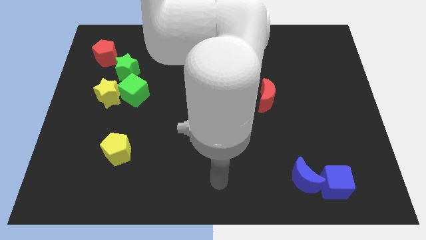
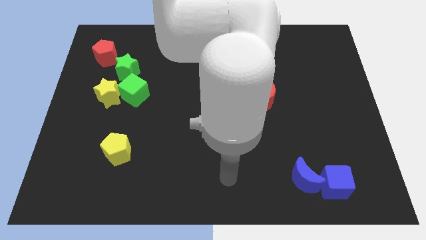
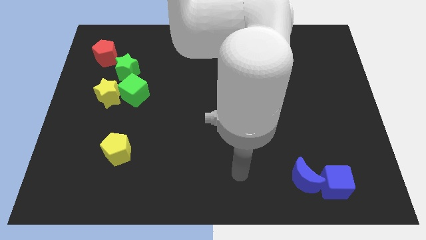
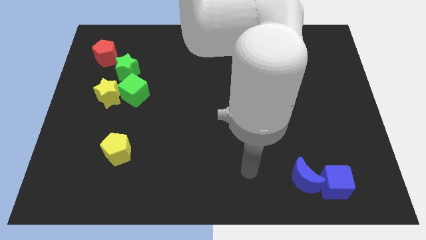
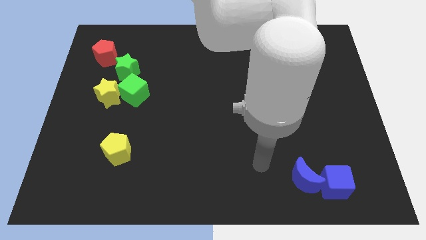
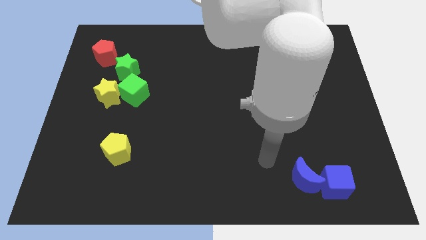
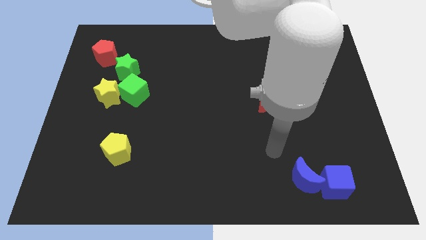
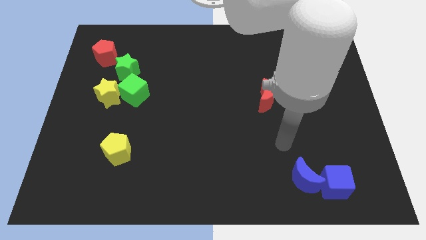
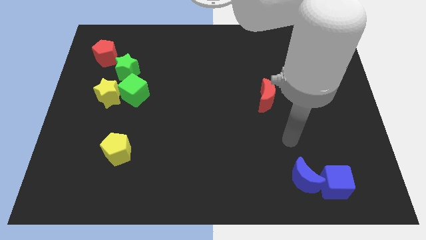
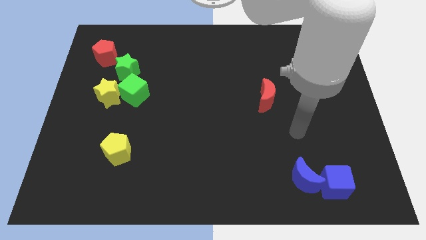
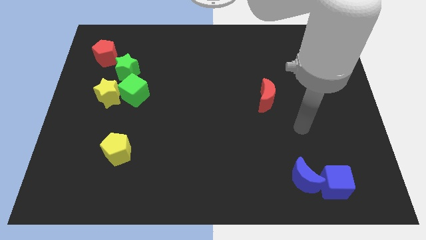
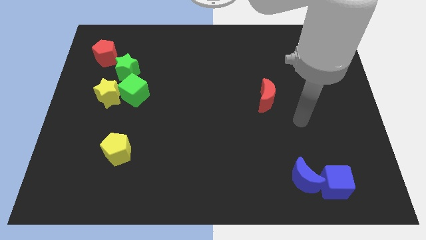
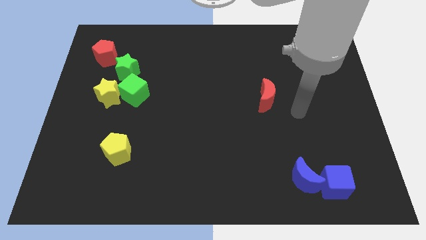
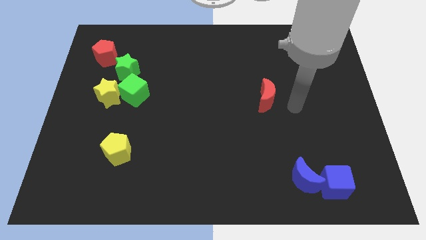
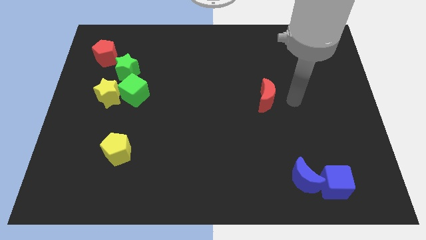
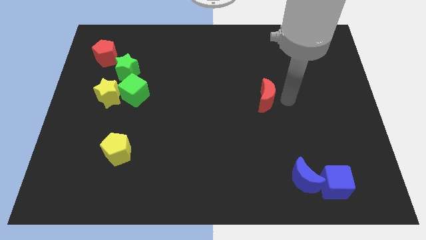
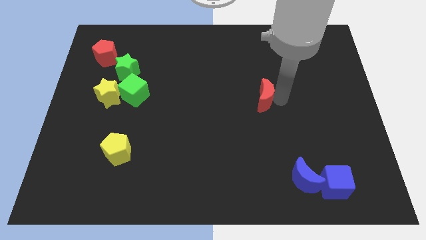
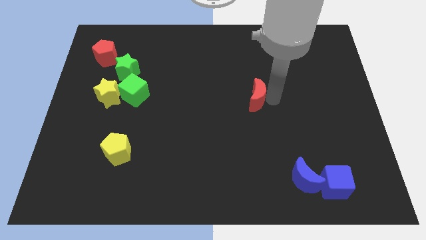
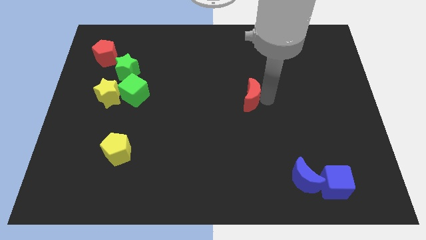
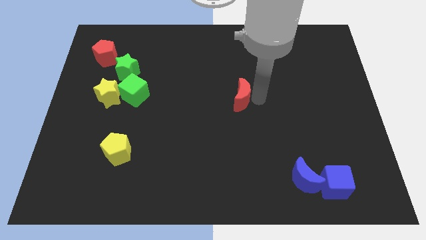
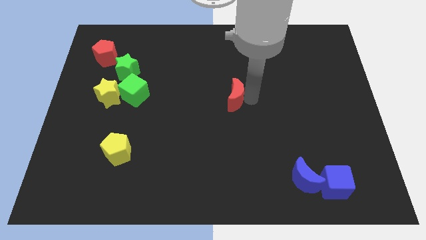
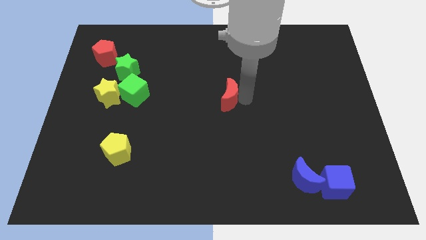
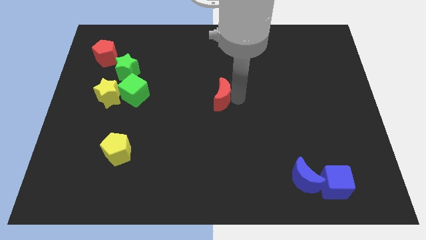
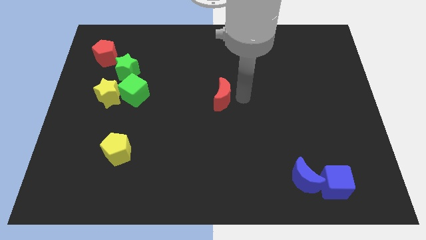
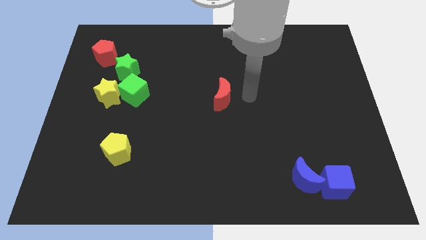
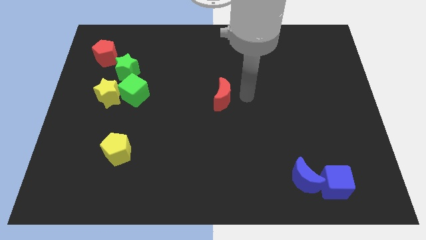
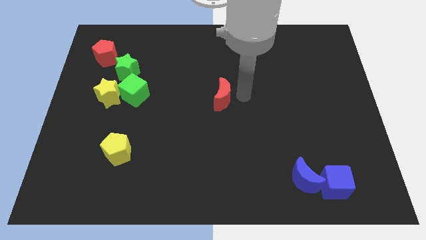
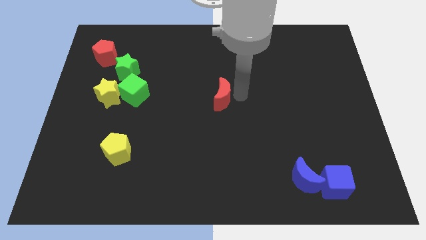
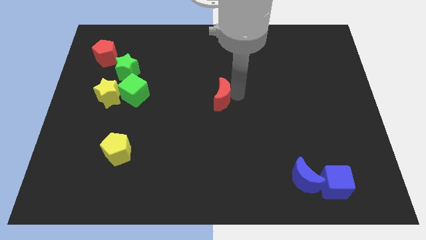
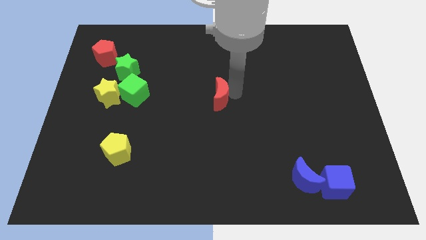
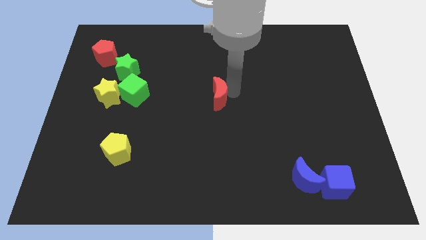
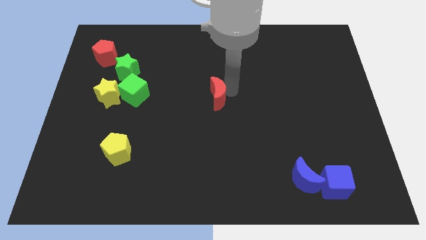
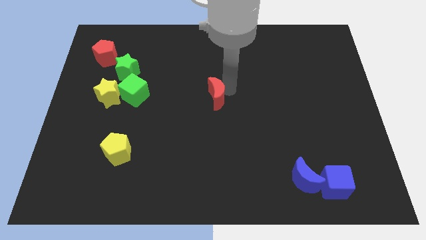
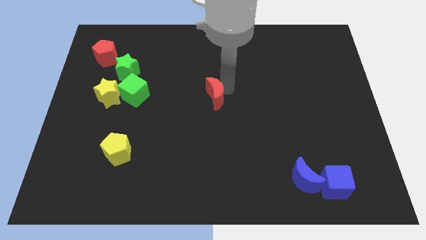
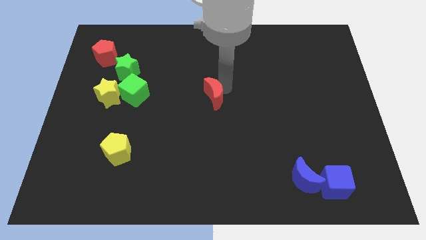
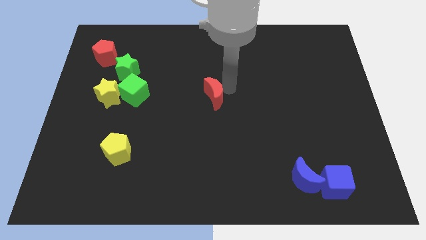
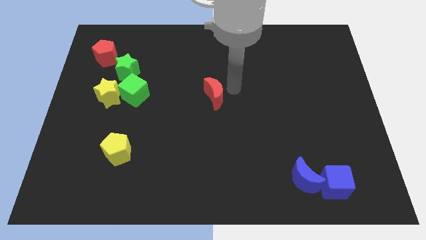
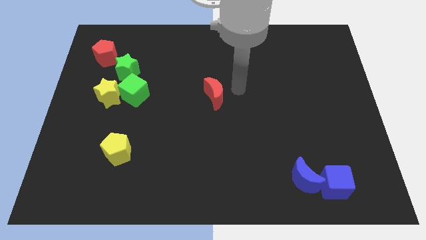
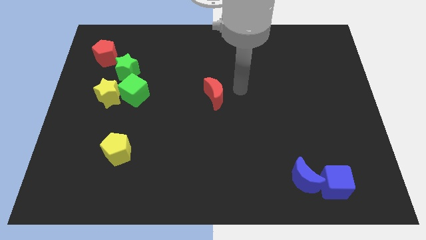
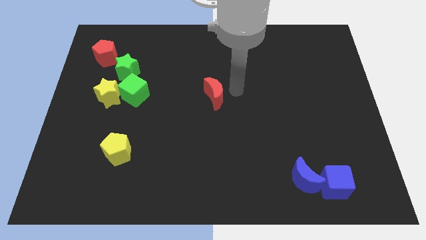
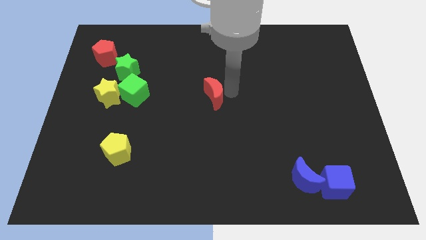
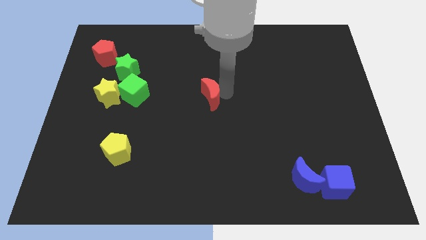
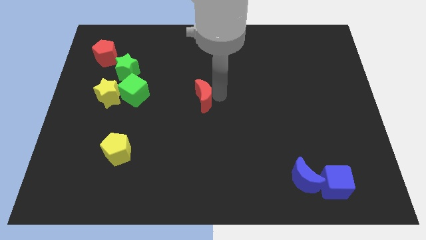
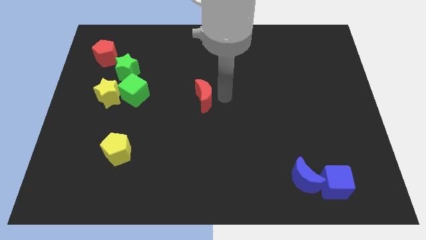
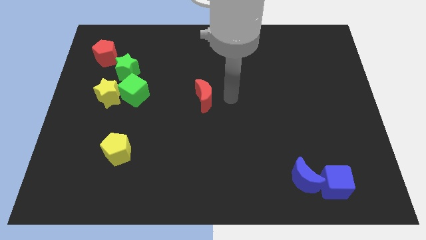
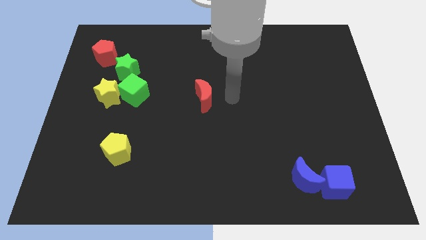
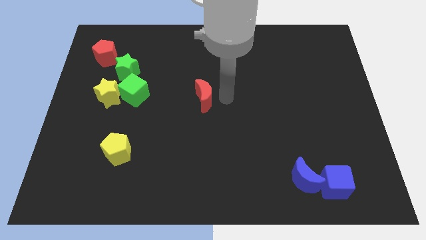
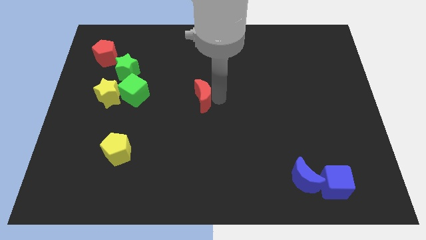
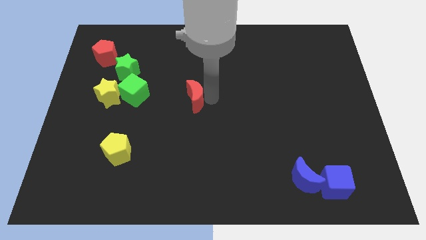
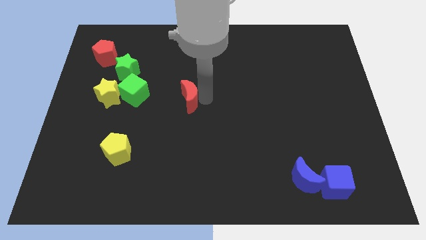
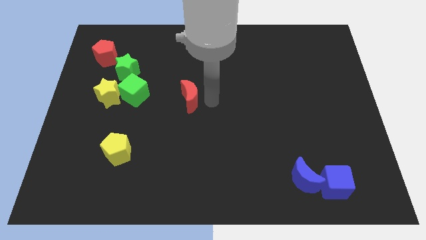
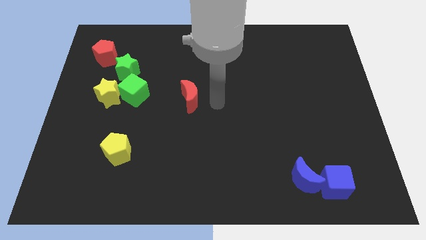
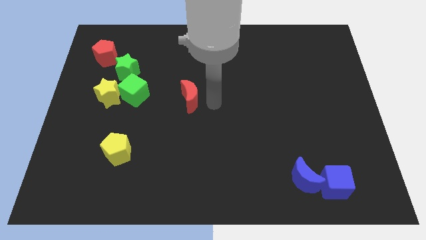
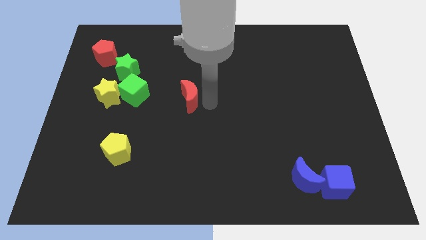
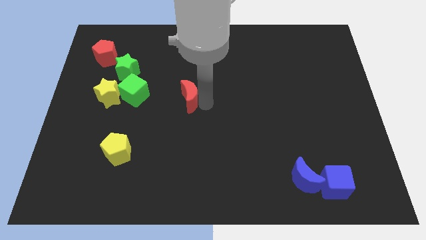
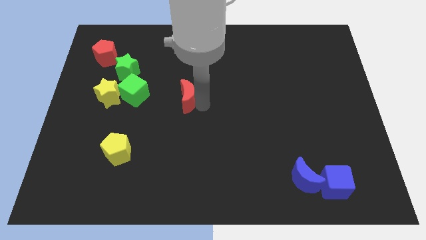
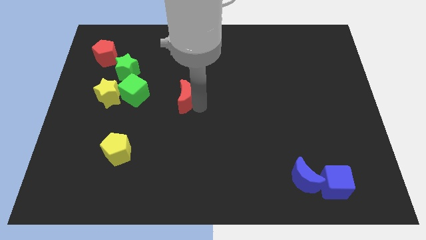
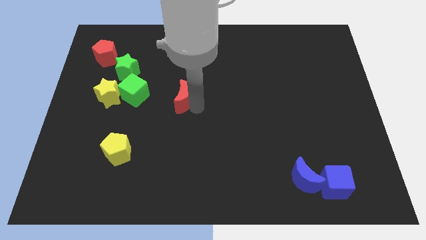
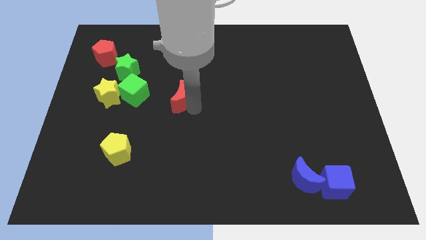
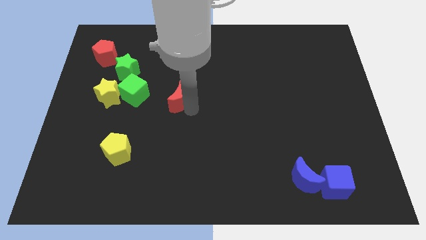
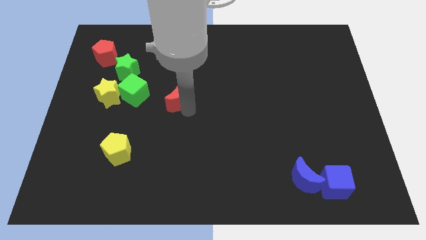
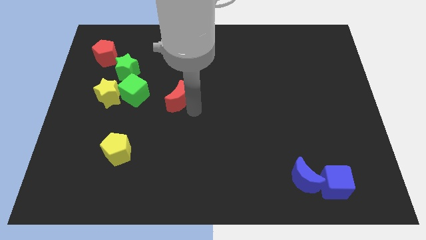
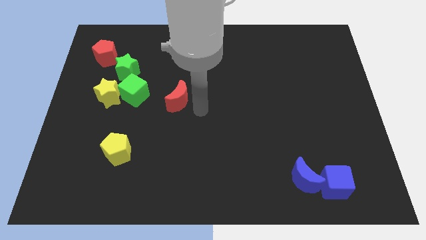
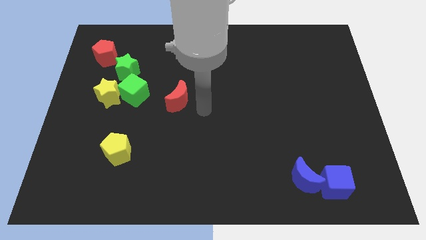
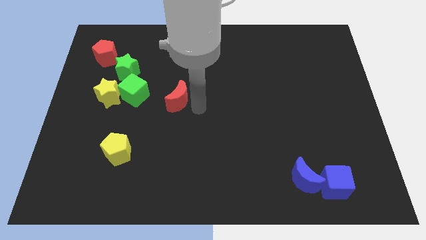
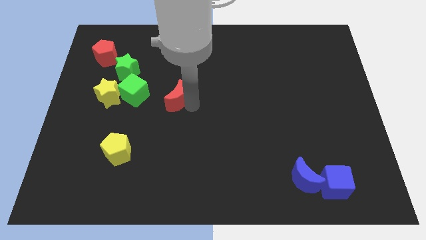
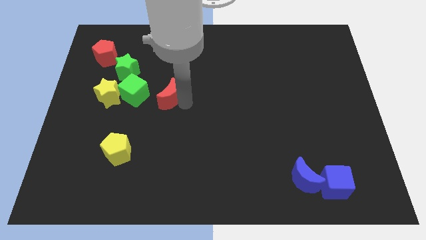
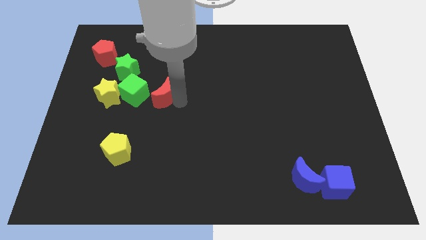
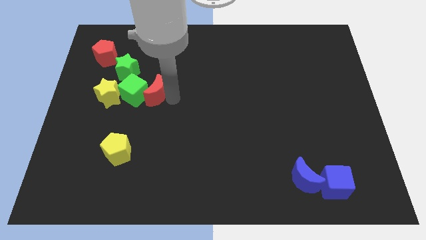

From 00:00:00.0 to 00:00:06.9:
put the red moon close to the green cube
